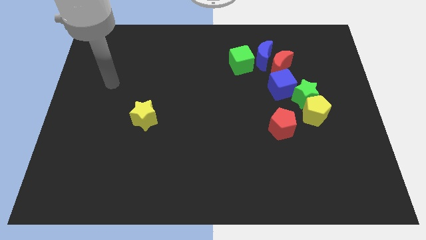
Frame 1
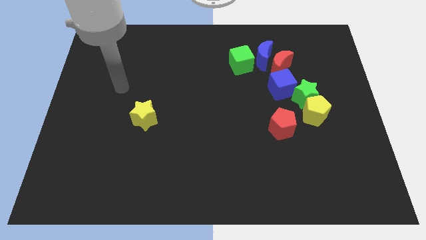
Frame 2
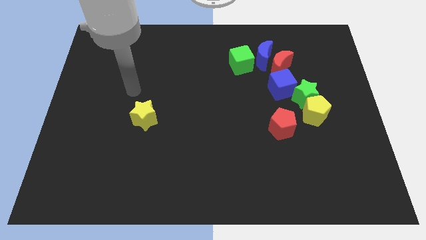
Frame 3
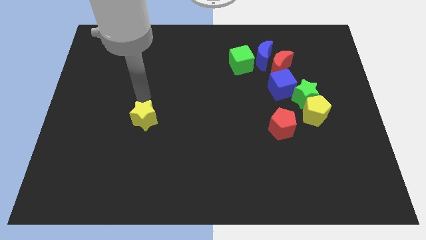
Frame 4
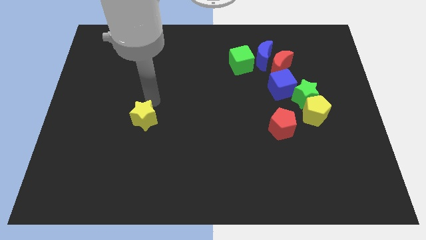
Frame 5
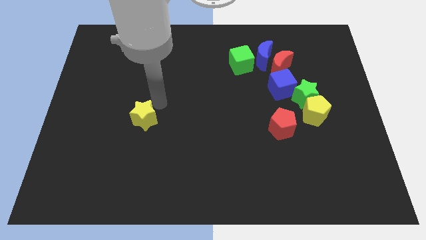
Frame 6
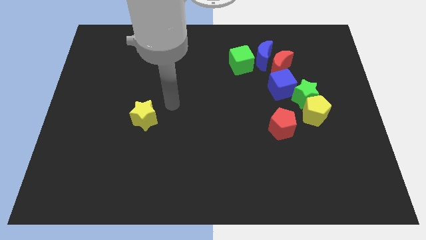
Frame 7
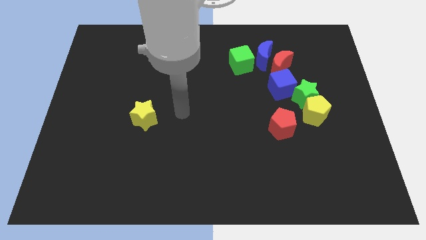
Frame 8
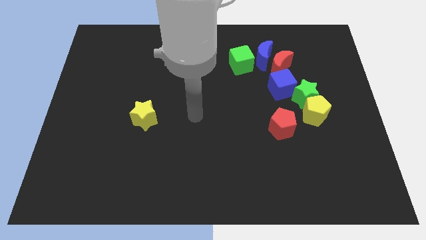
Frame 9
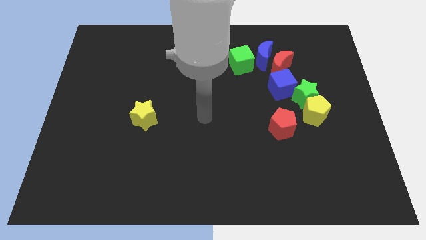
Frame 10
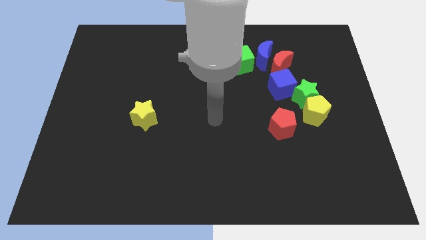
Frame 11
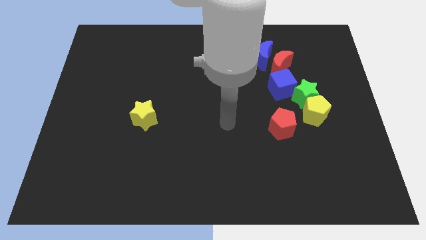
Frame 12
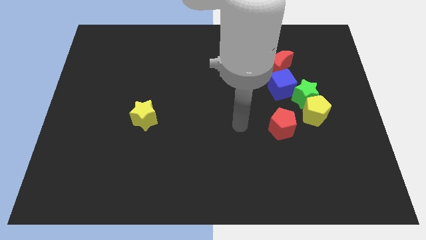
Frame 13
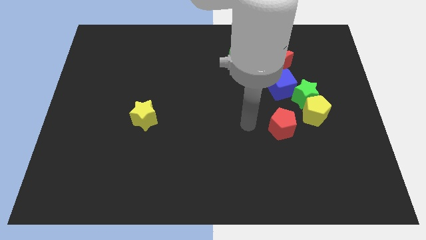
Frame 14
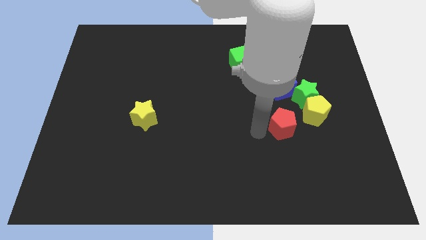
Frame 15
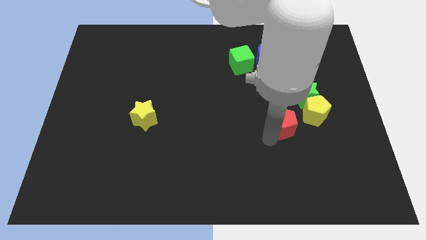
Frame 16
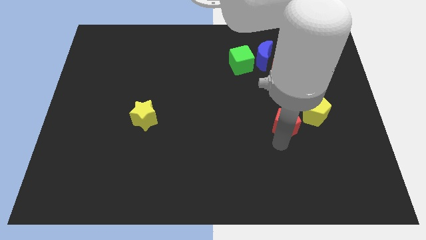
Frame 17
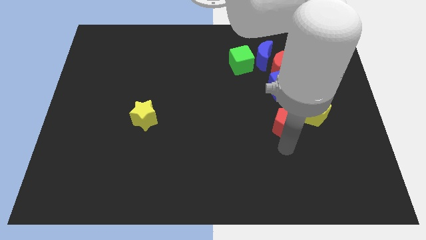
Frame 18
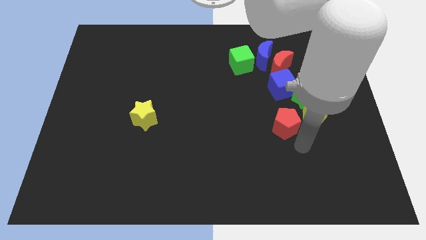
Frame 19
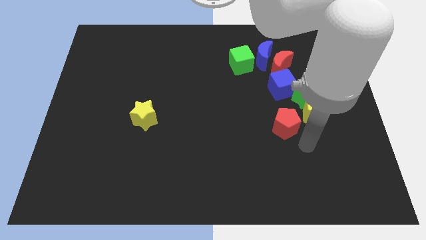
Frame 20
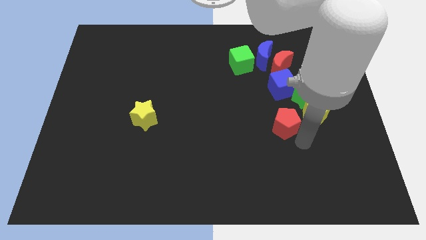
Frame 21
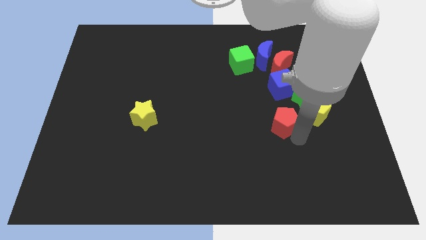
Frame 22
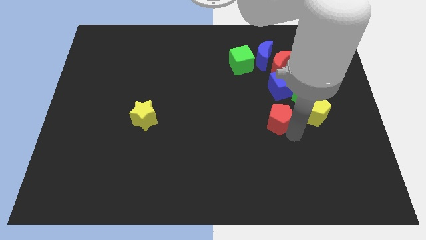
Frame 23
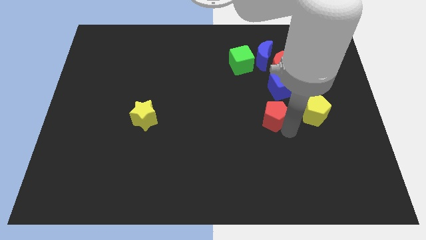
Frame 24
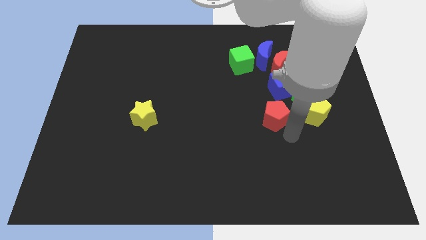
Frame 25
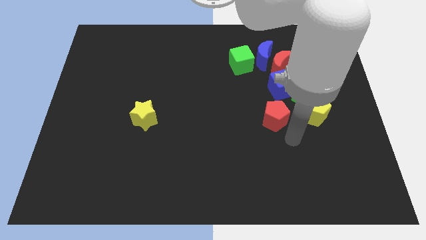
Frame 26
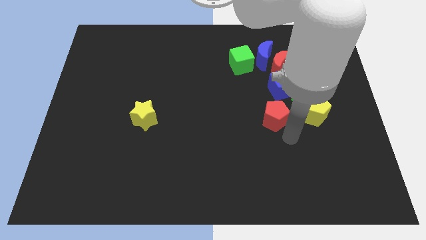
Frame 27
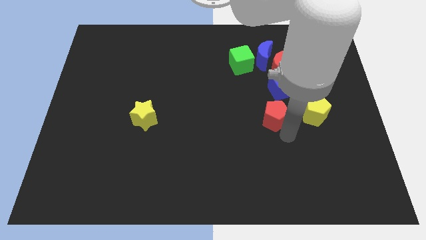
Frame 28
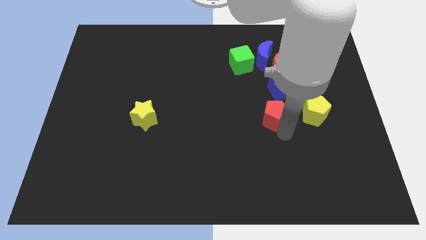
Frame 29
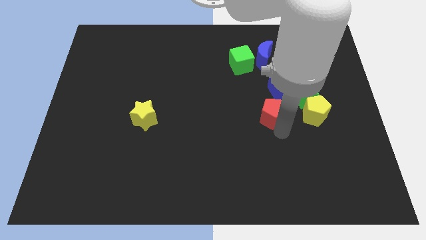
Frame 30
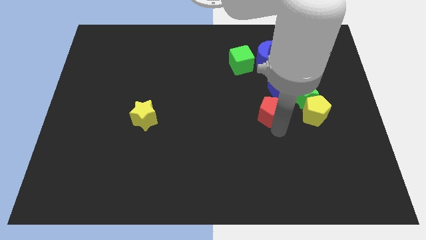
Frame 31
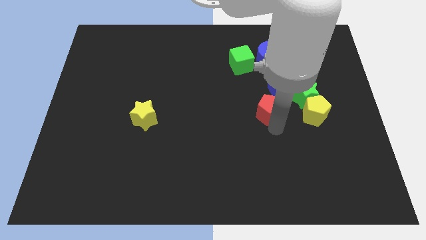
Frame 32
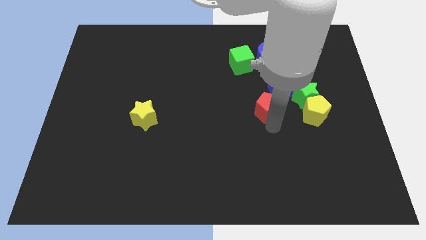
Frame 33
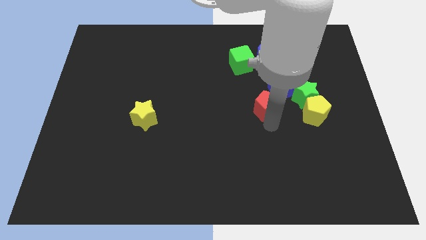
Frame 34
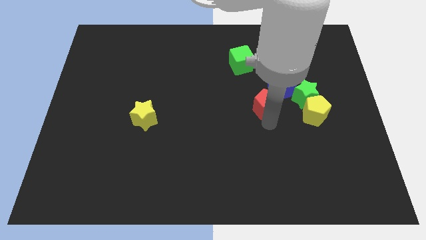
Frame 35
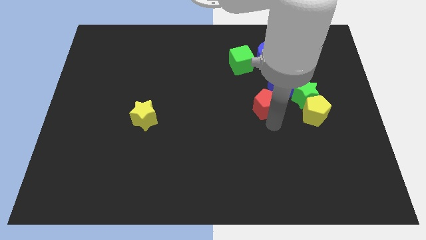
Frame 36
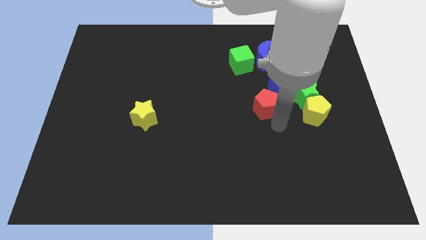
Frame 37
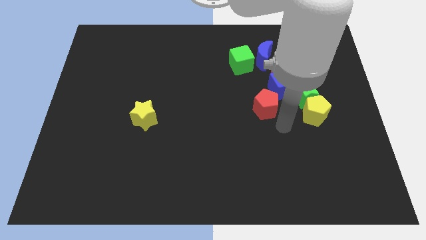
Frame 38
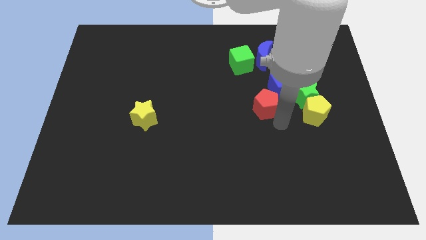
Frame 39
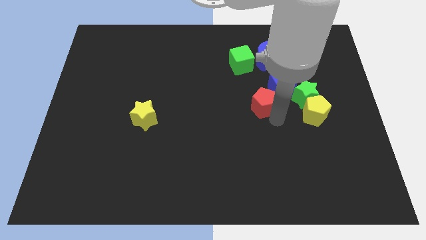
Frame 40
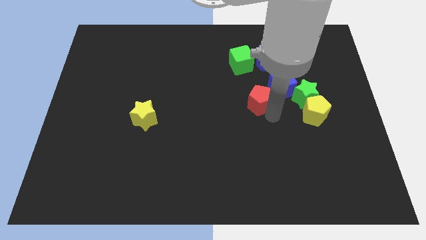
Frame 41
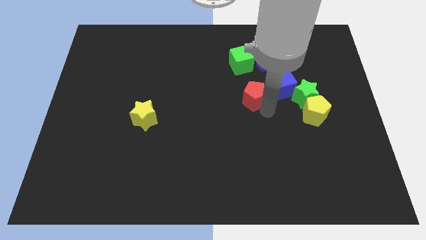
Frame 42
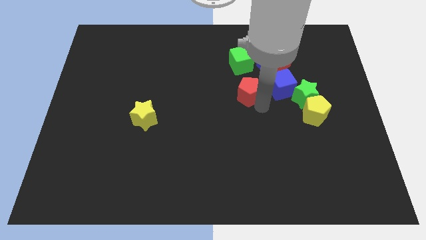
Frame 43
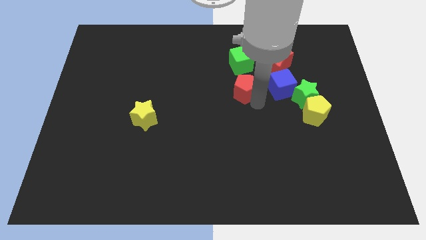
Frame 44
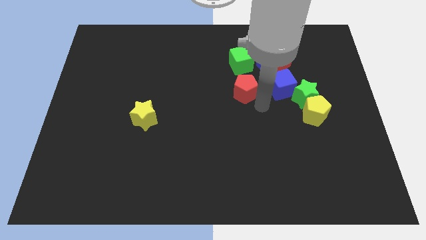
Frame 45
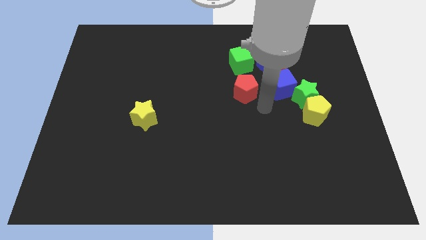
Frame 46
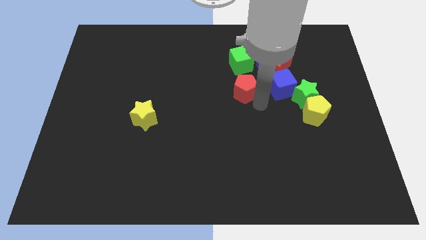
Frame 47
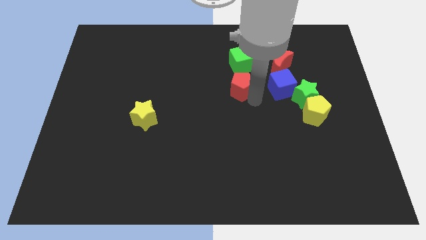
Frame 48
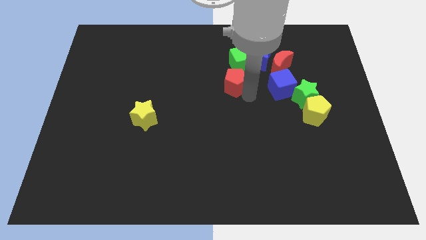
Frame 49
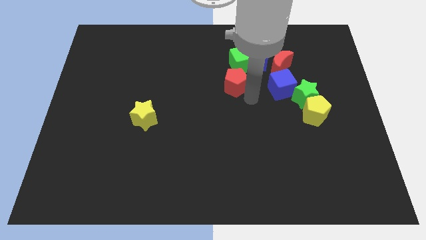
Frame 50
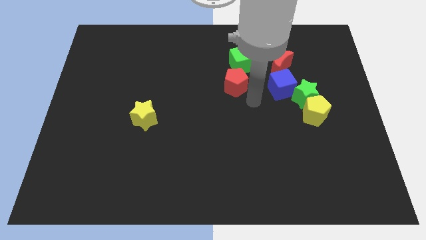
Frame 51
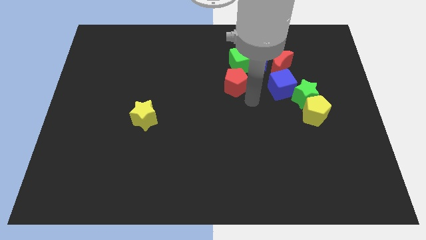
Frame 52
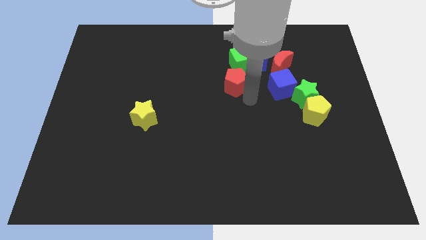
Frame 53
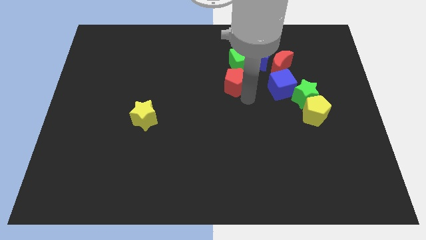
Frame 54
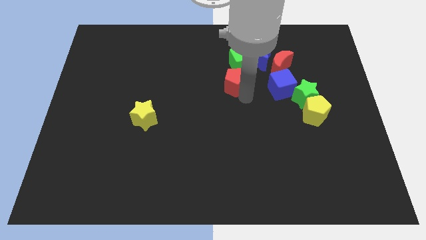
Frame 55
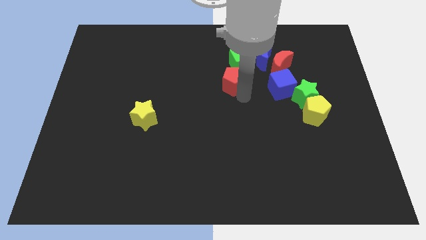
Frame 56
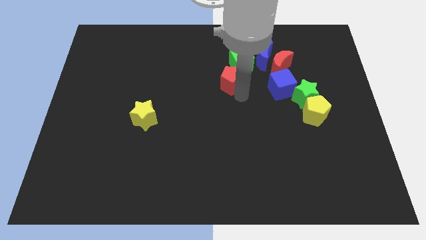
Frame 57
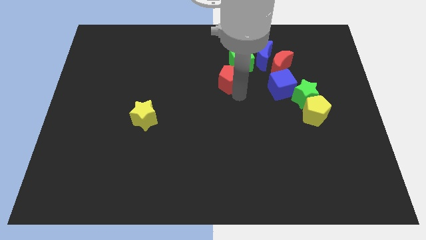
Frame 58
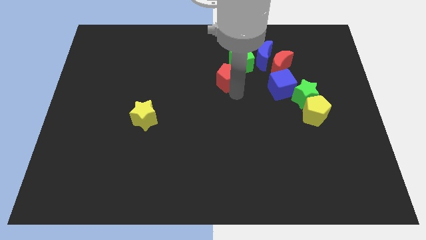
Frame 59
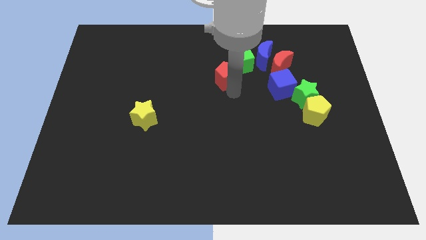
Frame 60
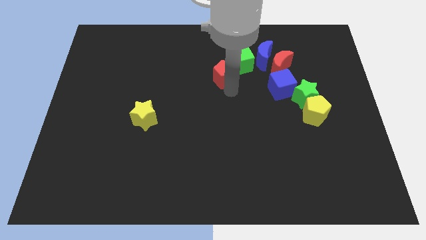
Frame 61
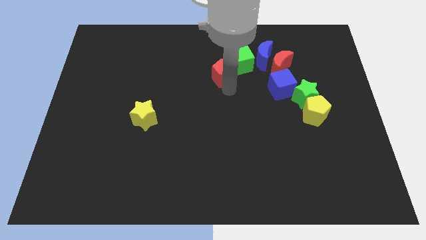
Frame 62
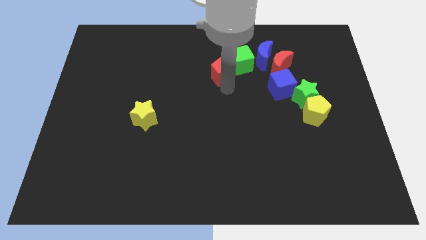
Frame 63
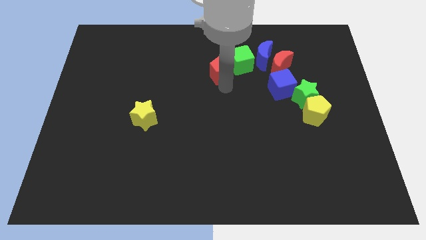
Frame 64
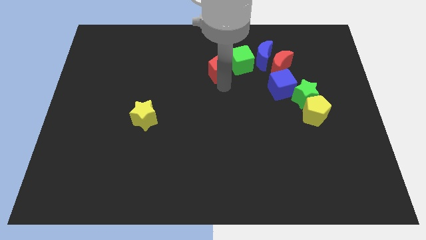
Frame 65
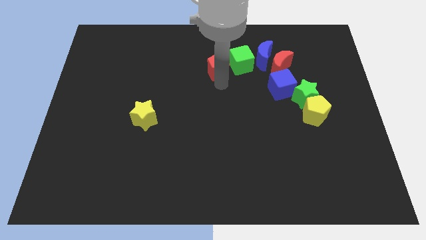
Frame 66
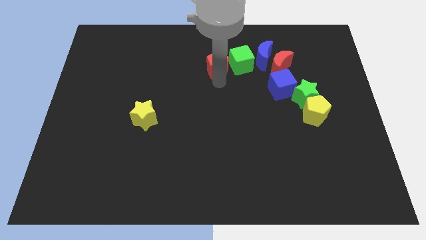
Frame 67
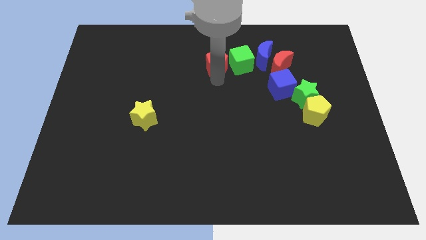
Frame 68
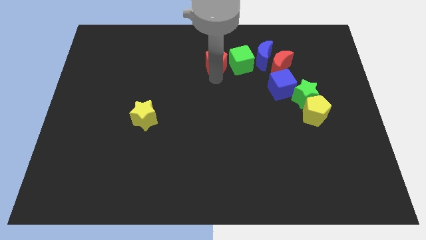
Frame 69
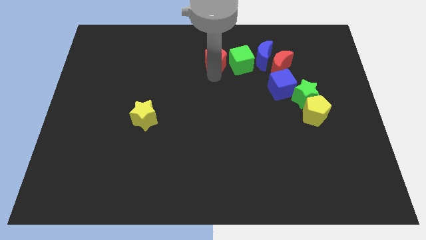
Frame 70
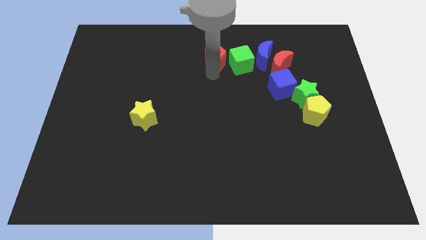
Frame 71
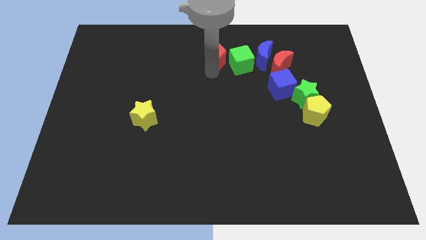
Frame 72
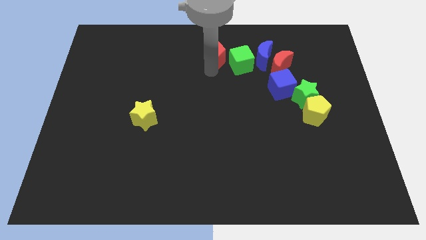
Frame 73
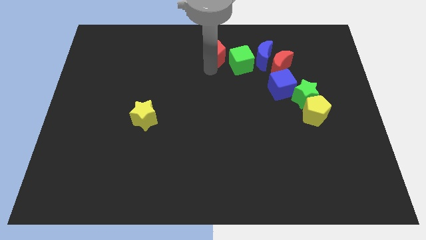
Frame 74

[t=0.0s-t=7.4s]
put the red pentagon to the top side
